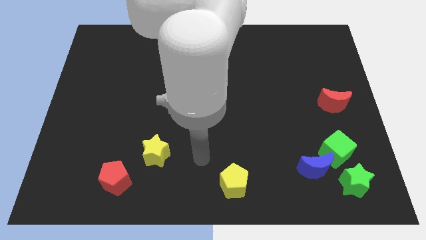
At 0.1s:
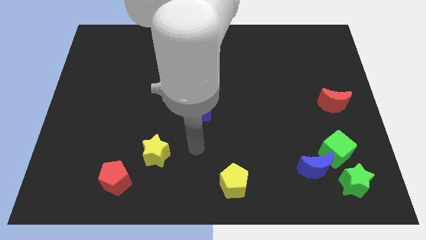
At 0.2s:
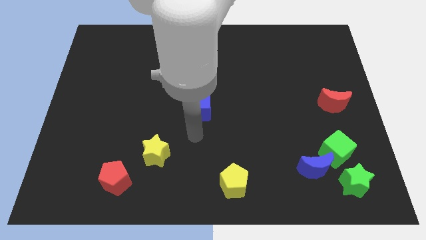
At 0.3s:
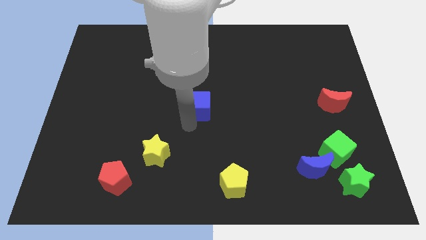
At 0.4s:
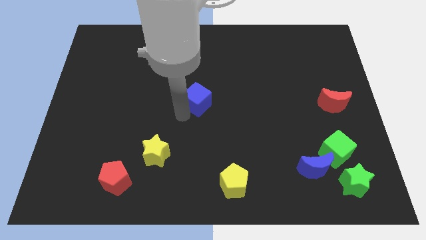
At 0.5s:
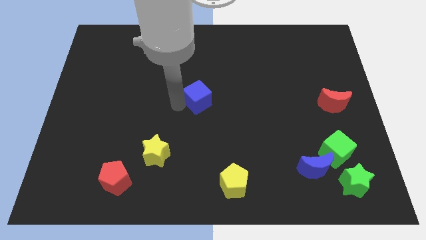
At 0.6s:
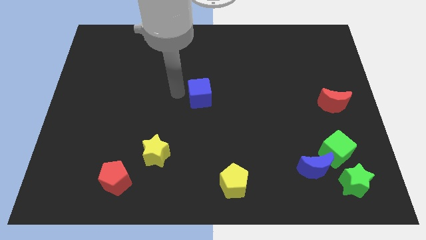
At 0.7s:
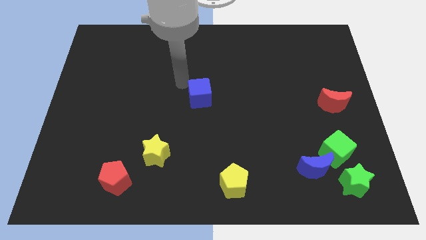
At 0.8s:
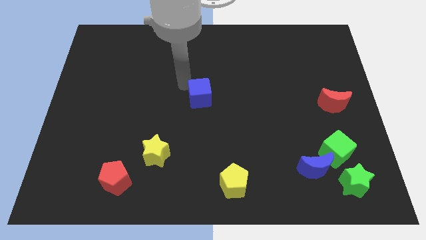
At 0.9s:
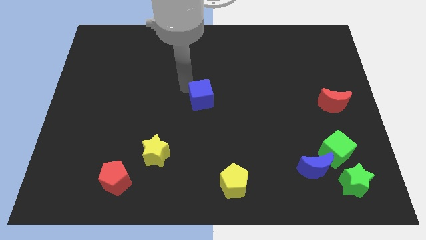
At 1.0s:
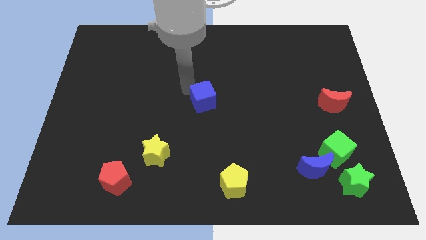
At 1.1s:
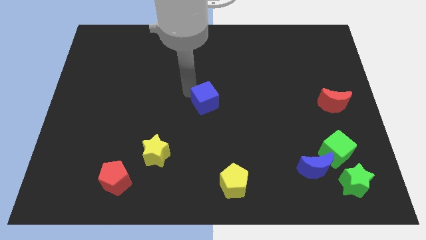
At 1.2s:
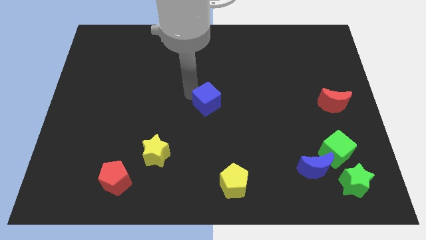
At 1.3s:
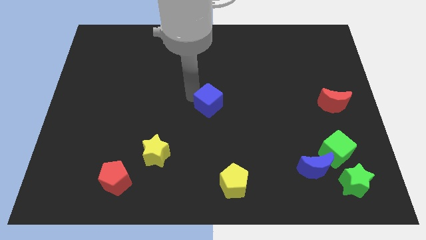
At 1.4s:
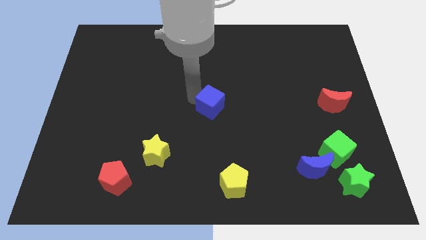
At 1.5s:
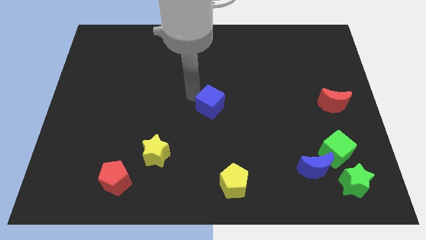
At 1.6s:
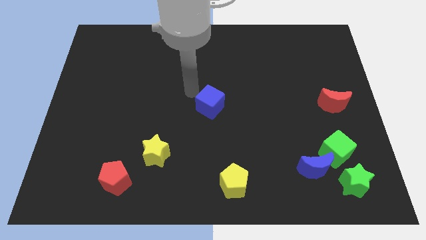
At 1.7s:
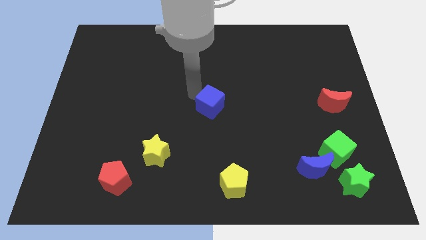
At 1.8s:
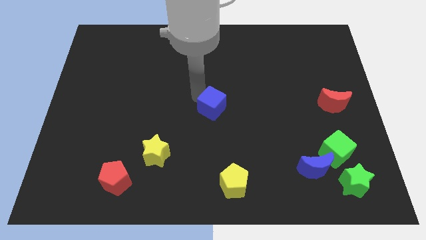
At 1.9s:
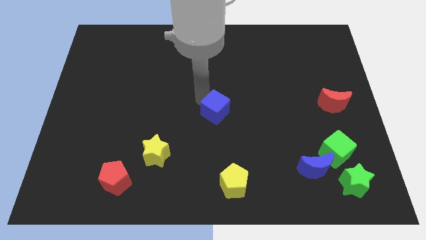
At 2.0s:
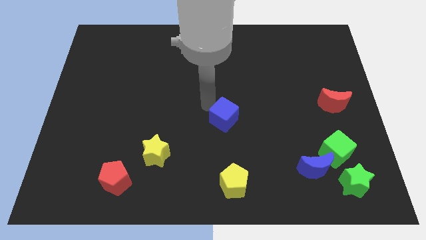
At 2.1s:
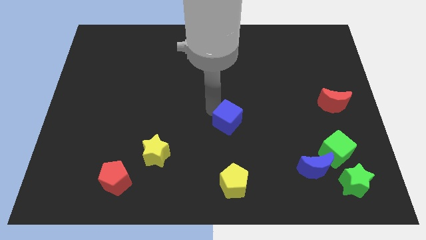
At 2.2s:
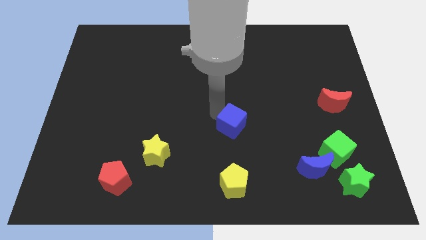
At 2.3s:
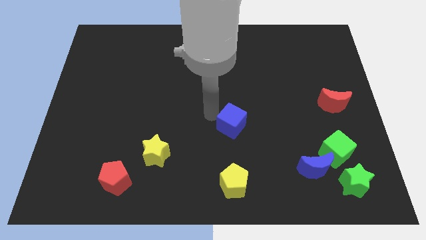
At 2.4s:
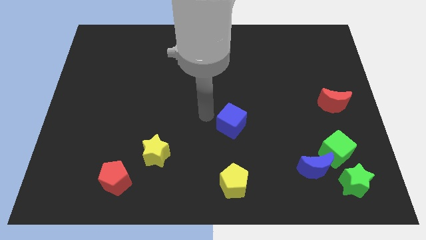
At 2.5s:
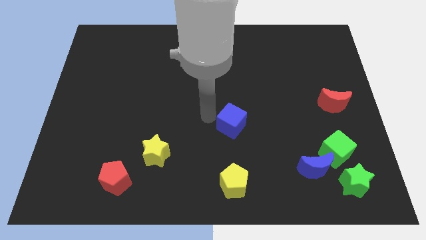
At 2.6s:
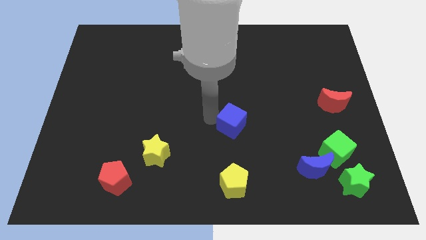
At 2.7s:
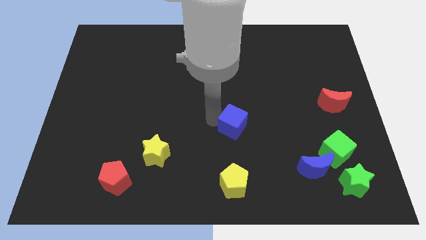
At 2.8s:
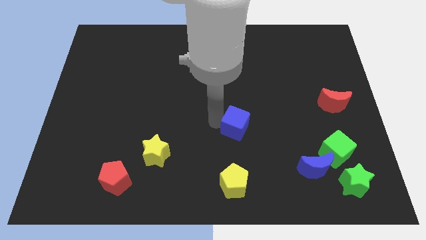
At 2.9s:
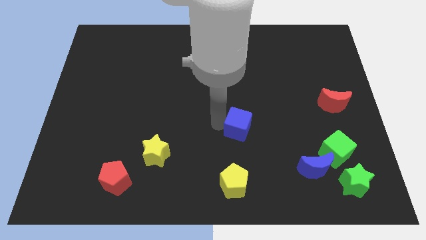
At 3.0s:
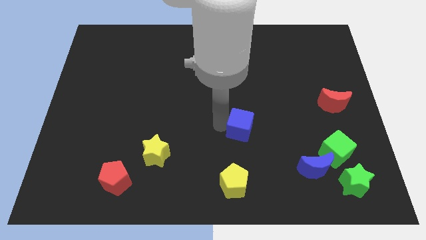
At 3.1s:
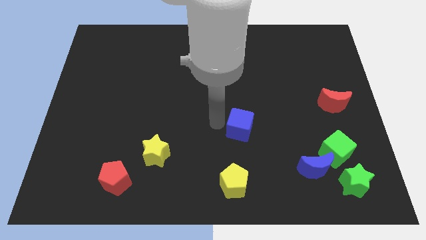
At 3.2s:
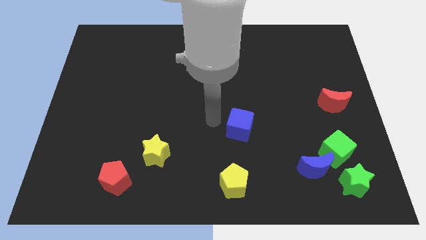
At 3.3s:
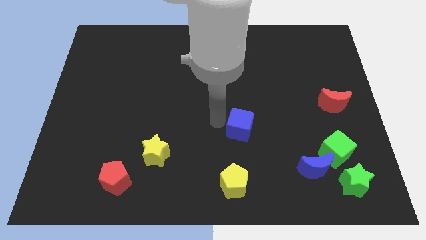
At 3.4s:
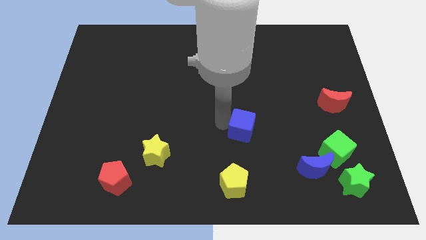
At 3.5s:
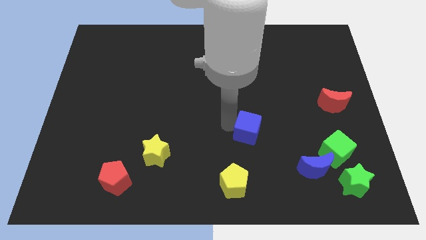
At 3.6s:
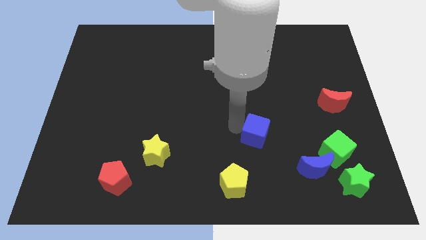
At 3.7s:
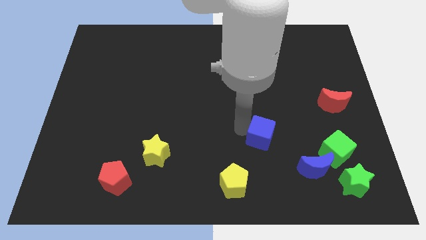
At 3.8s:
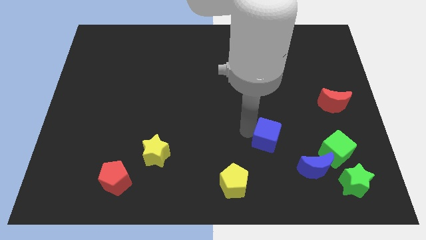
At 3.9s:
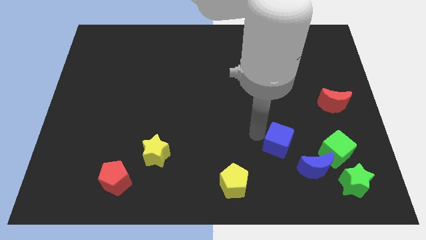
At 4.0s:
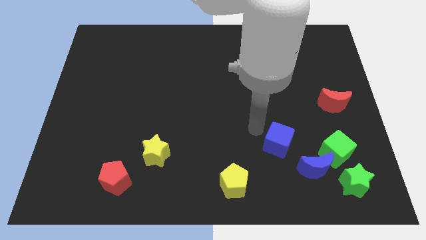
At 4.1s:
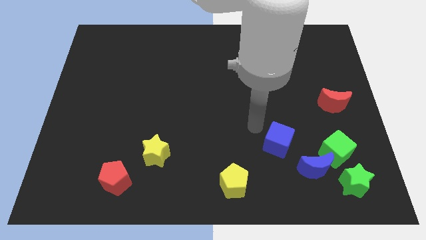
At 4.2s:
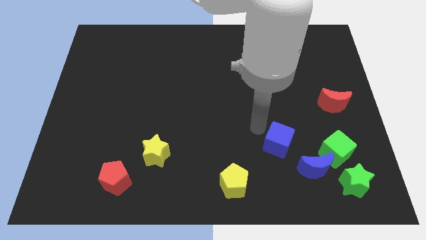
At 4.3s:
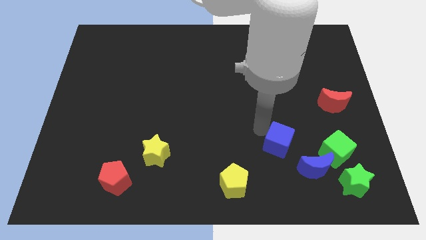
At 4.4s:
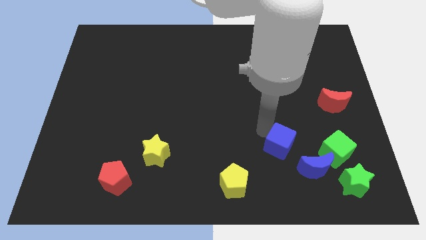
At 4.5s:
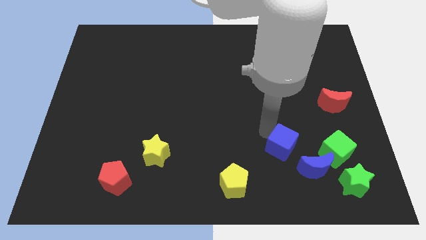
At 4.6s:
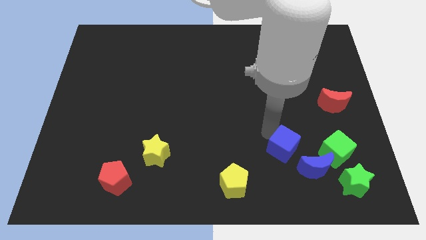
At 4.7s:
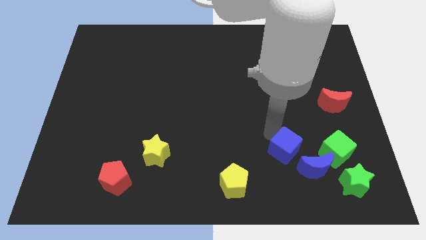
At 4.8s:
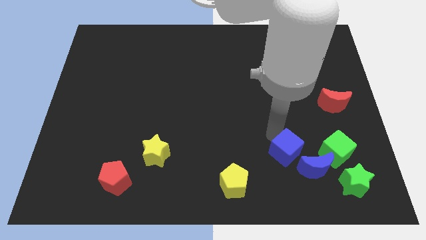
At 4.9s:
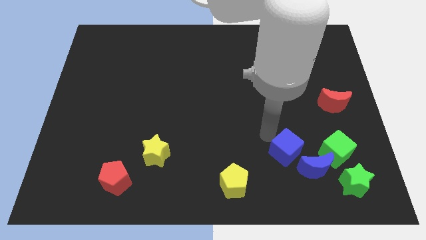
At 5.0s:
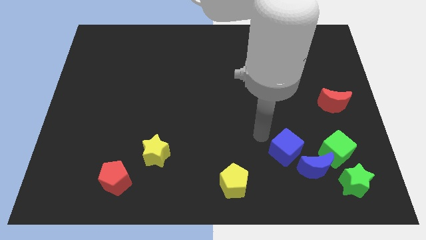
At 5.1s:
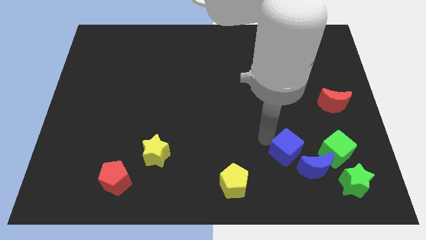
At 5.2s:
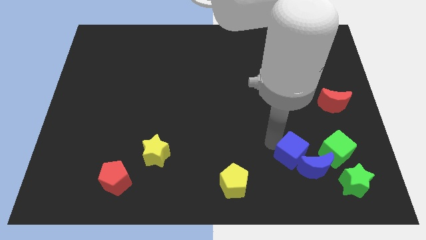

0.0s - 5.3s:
push the blue cube next to the blue moon

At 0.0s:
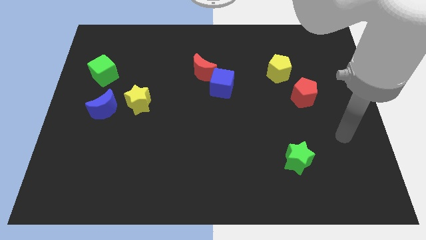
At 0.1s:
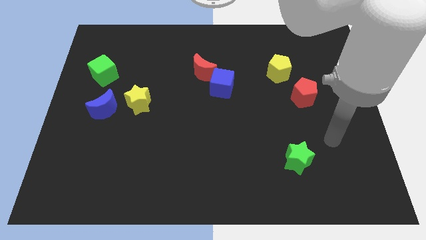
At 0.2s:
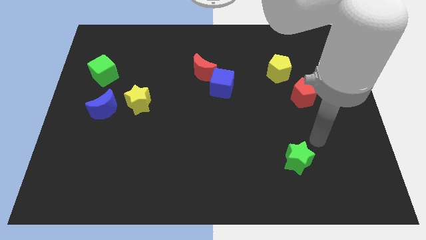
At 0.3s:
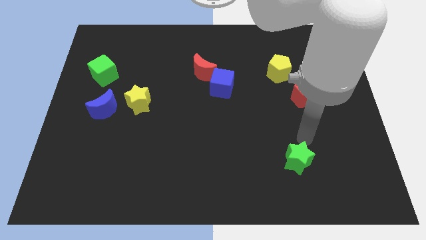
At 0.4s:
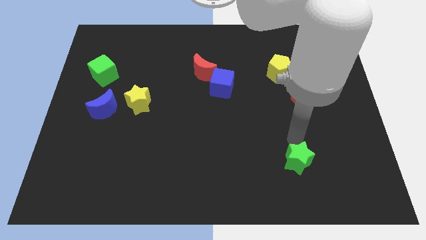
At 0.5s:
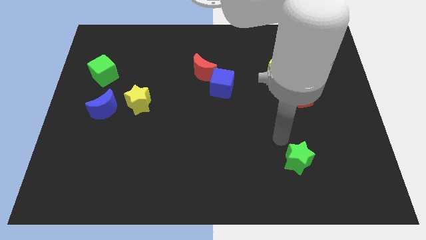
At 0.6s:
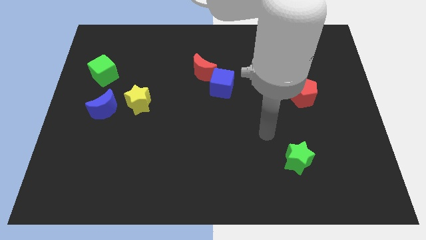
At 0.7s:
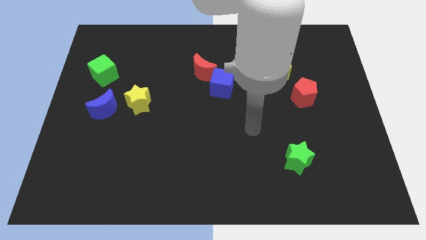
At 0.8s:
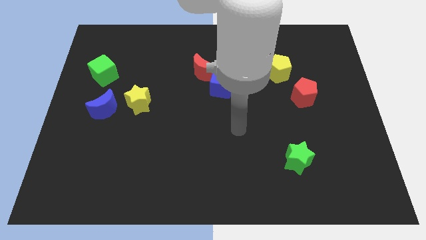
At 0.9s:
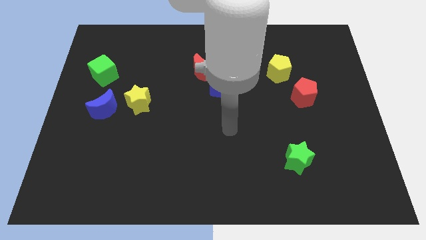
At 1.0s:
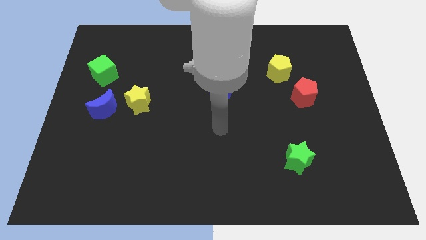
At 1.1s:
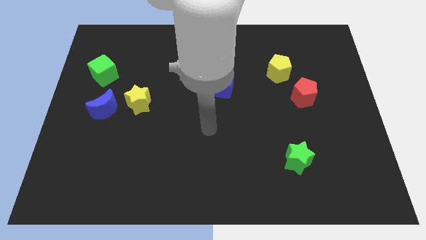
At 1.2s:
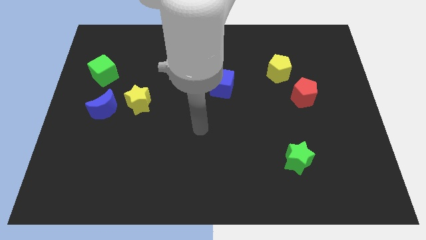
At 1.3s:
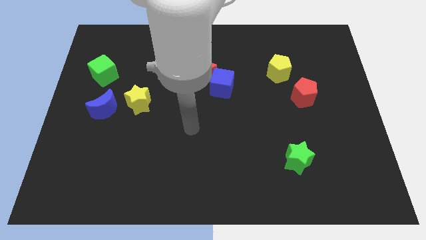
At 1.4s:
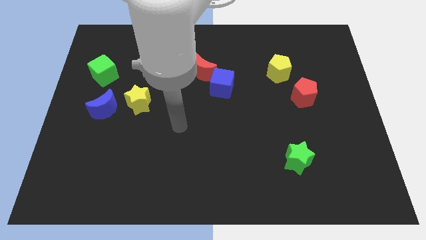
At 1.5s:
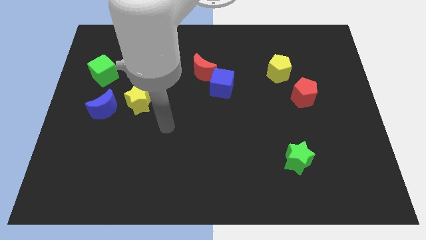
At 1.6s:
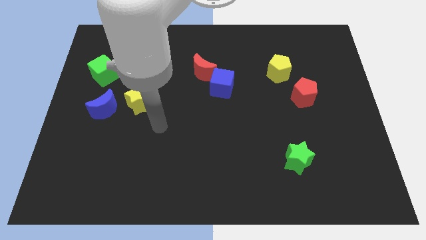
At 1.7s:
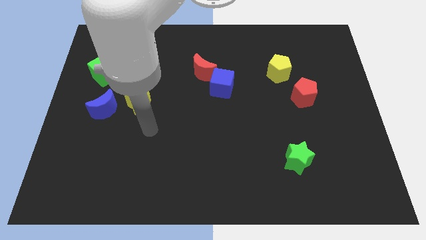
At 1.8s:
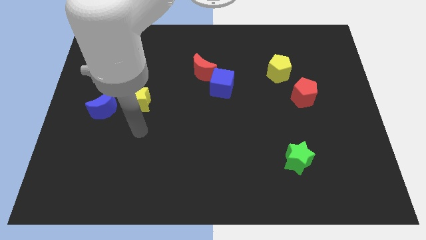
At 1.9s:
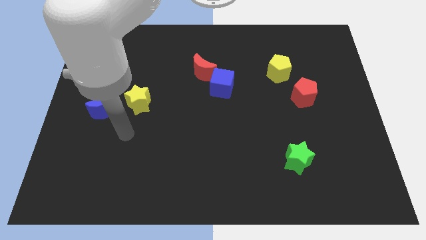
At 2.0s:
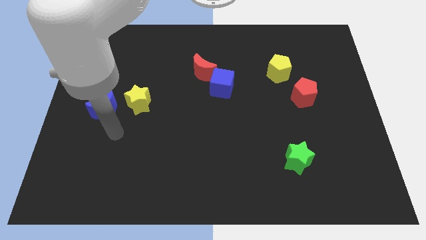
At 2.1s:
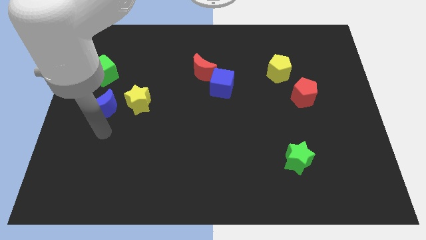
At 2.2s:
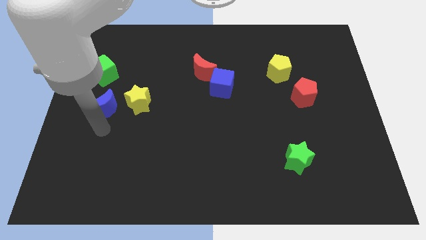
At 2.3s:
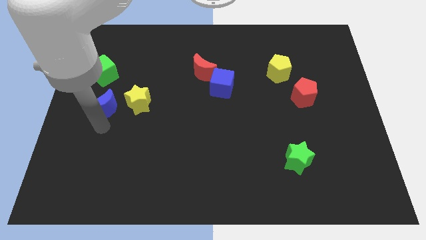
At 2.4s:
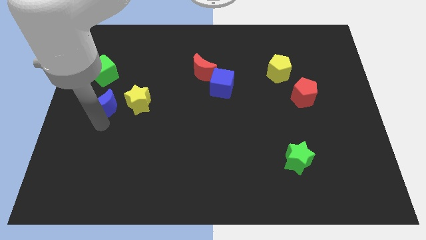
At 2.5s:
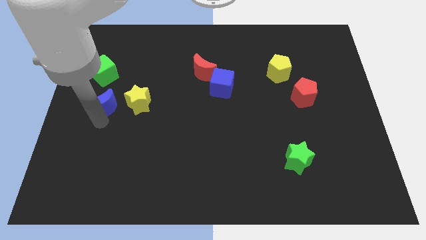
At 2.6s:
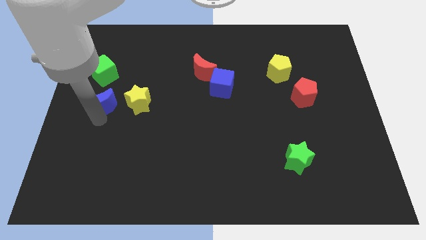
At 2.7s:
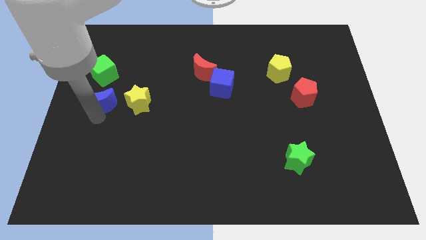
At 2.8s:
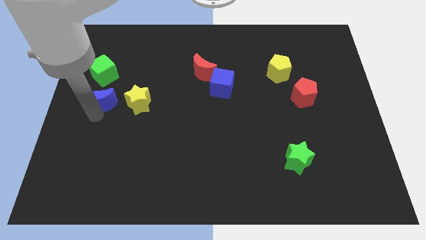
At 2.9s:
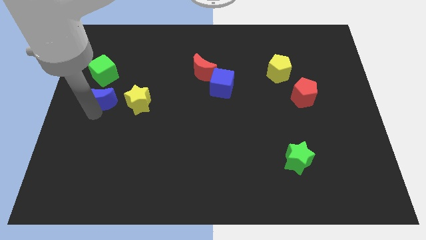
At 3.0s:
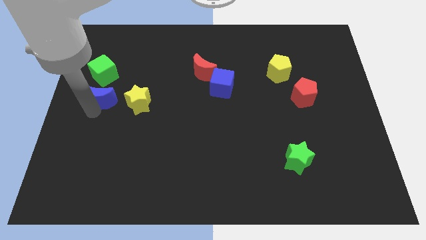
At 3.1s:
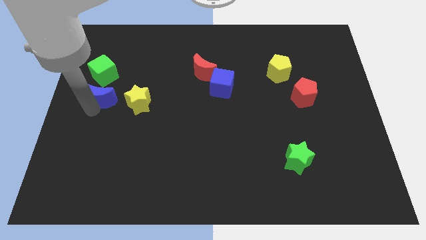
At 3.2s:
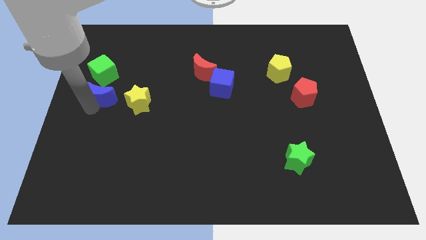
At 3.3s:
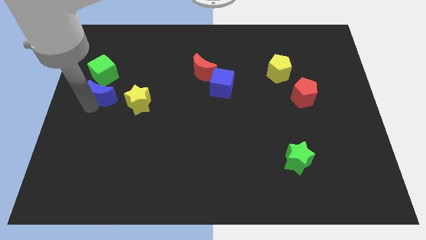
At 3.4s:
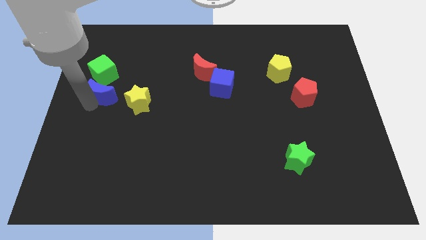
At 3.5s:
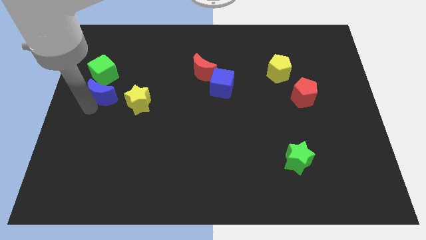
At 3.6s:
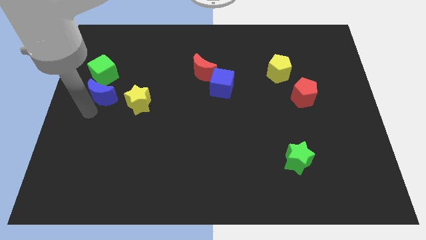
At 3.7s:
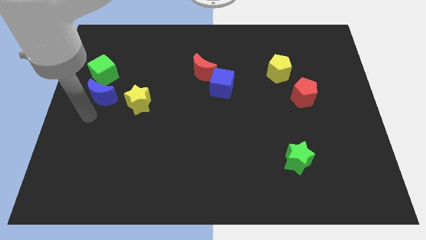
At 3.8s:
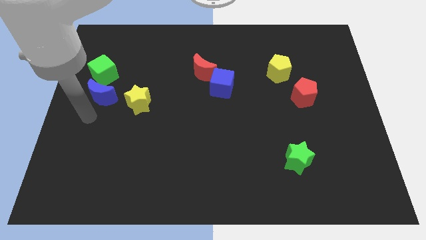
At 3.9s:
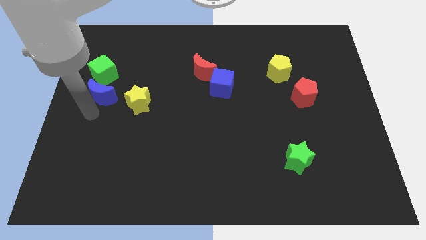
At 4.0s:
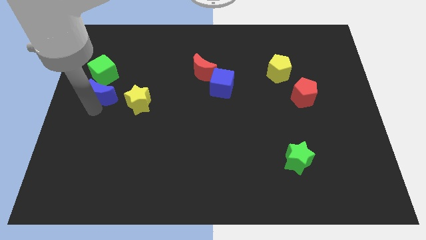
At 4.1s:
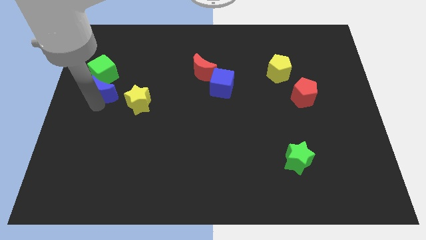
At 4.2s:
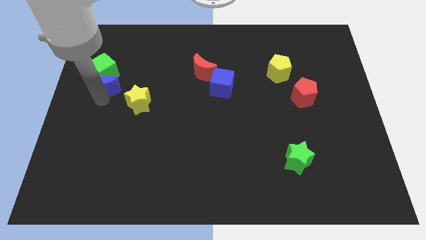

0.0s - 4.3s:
put the blue moon towards the green cube
